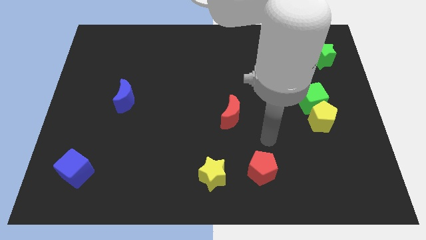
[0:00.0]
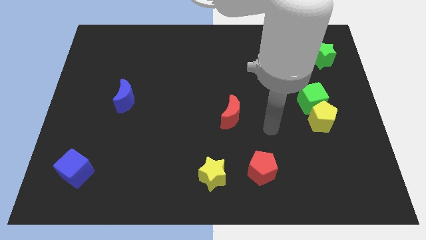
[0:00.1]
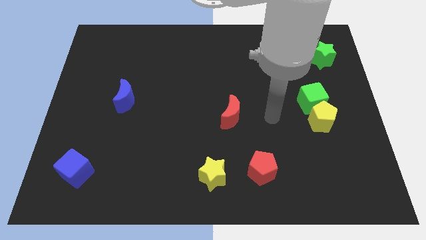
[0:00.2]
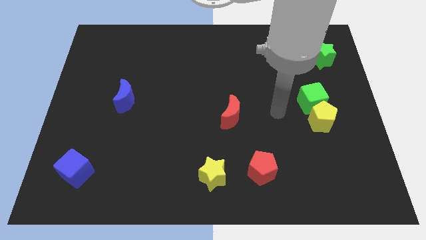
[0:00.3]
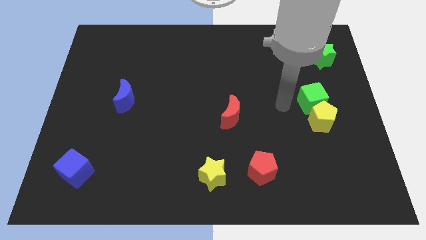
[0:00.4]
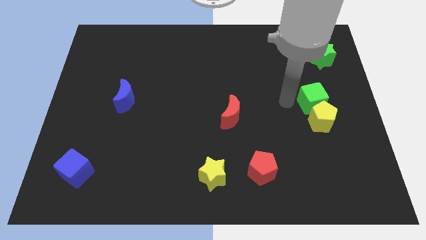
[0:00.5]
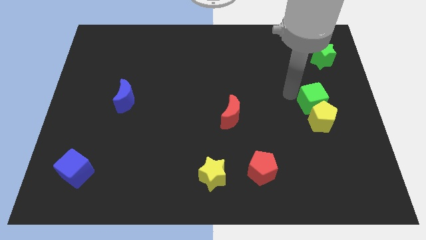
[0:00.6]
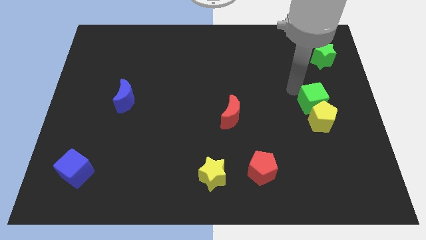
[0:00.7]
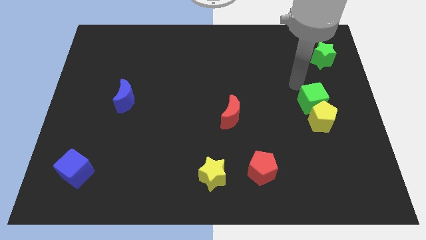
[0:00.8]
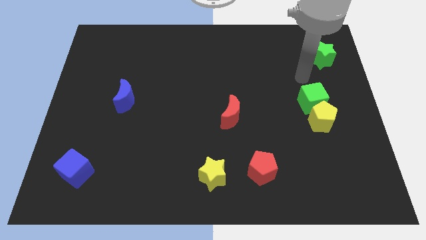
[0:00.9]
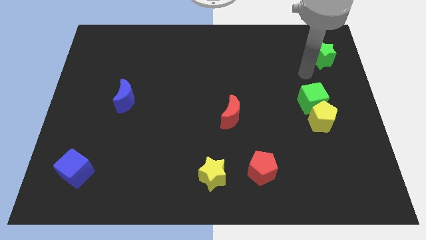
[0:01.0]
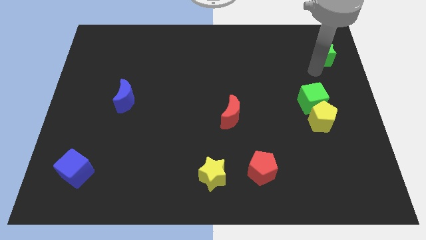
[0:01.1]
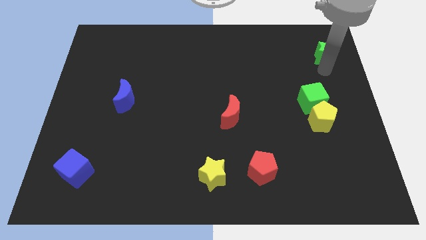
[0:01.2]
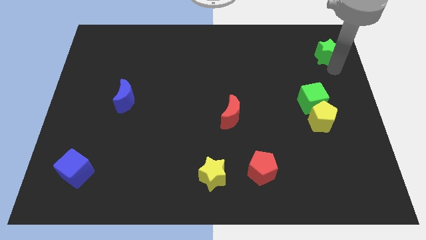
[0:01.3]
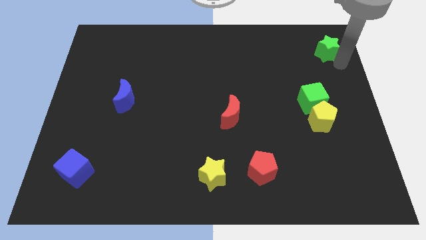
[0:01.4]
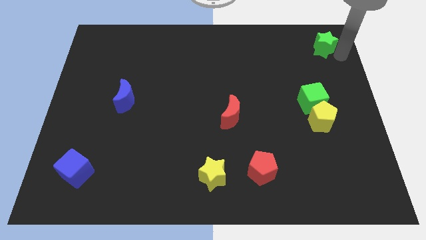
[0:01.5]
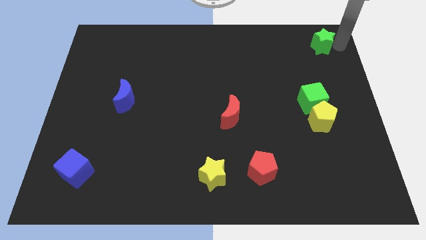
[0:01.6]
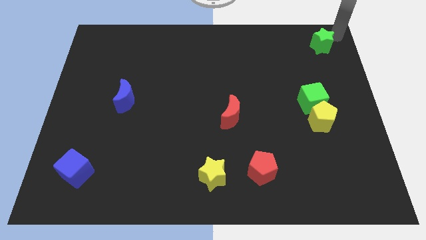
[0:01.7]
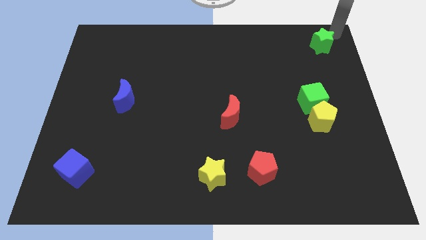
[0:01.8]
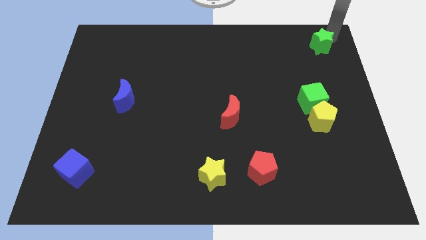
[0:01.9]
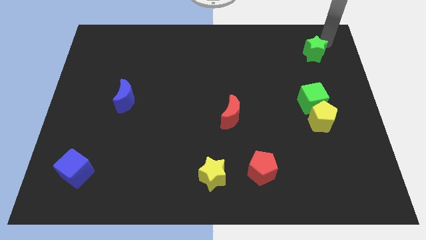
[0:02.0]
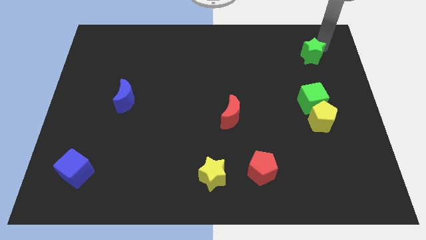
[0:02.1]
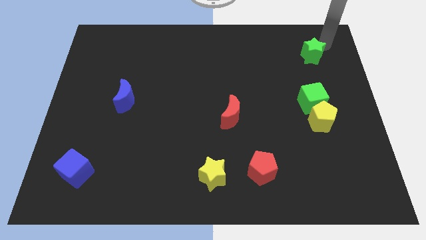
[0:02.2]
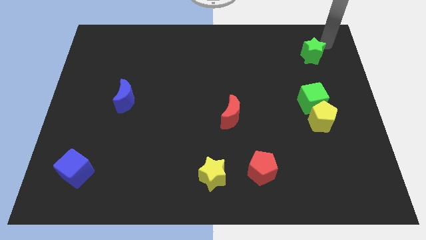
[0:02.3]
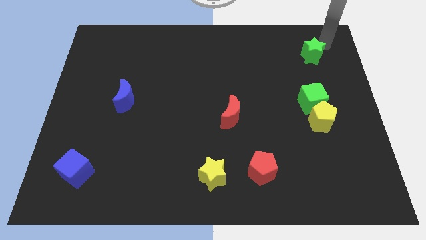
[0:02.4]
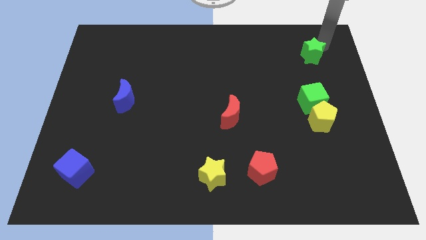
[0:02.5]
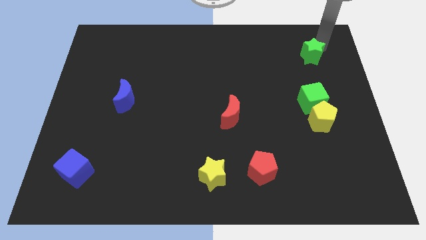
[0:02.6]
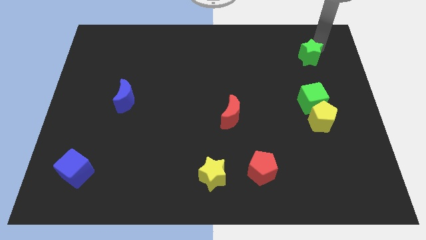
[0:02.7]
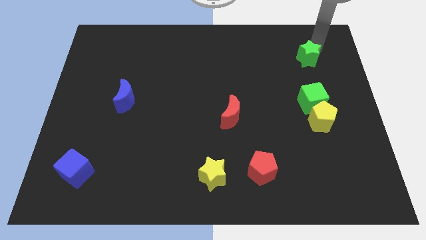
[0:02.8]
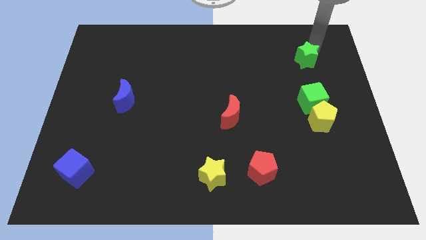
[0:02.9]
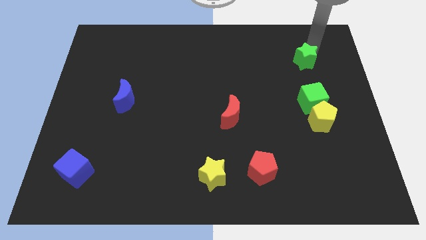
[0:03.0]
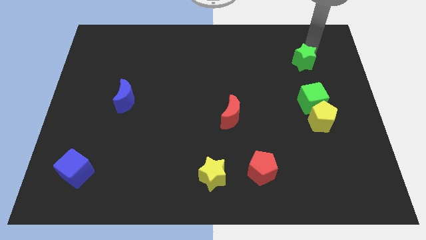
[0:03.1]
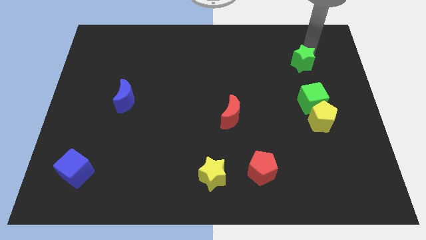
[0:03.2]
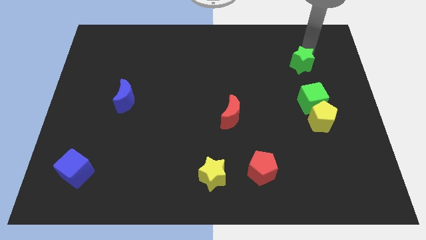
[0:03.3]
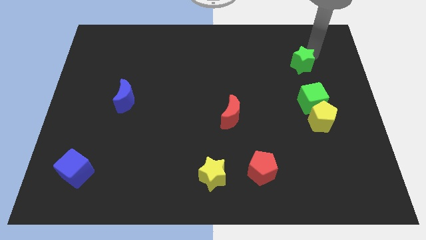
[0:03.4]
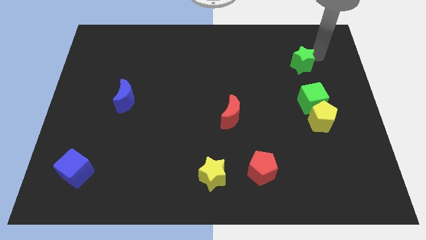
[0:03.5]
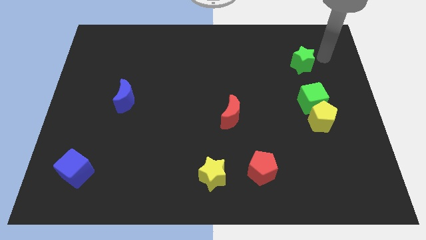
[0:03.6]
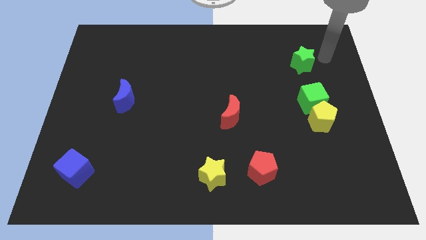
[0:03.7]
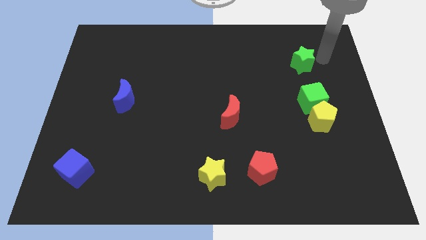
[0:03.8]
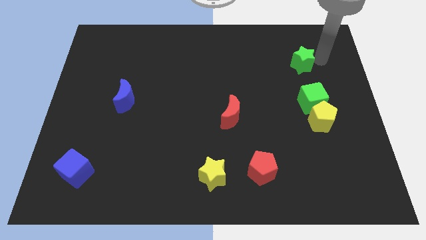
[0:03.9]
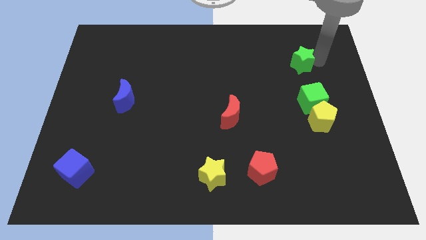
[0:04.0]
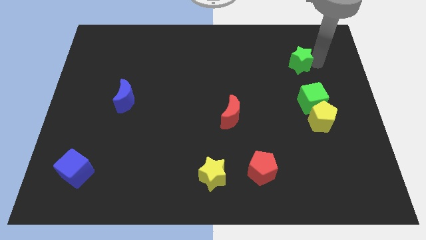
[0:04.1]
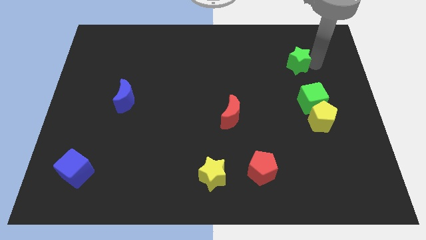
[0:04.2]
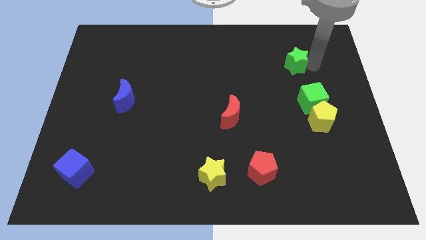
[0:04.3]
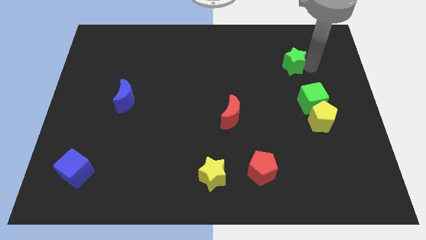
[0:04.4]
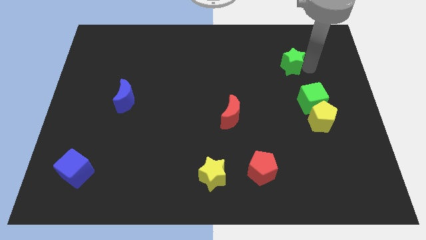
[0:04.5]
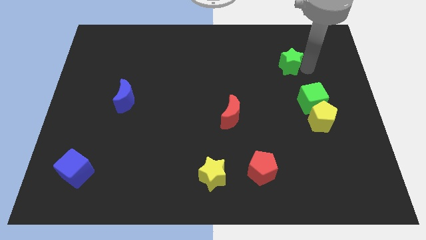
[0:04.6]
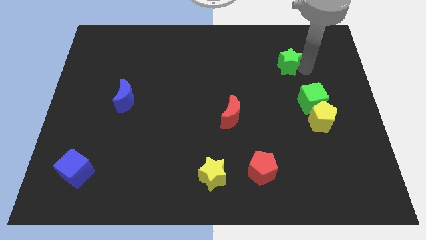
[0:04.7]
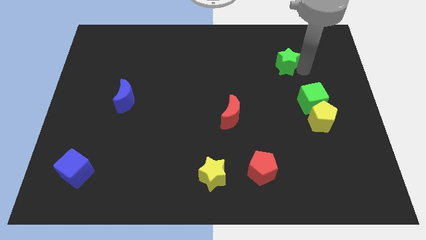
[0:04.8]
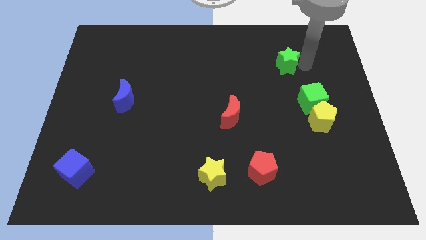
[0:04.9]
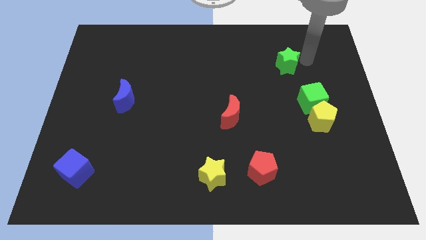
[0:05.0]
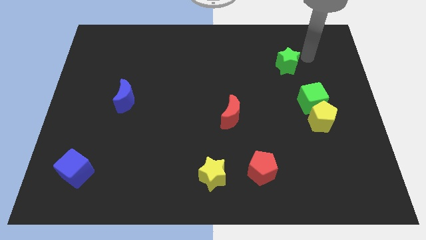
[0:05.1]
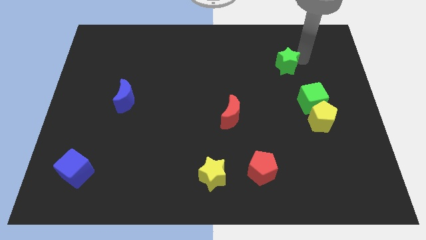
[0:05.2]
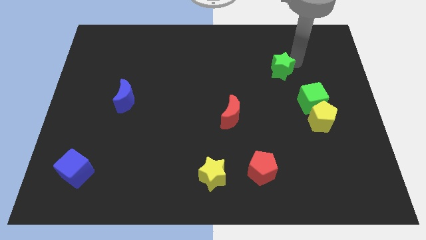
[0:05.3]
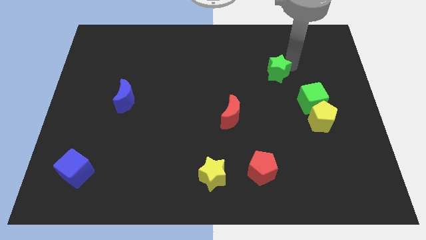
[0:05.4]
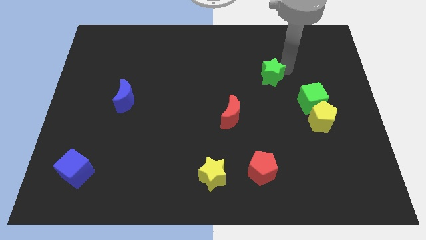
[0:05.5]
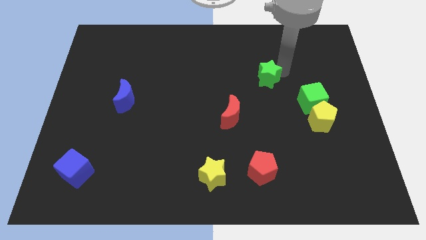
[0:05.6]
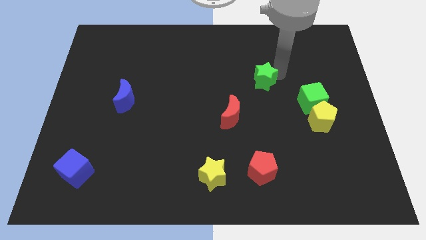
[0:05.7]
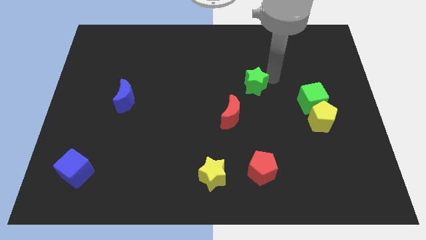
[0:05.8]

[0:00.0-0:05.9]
put the green star to the middle of the board

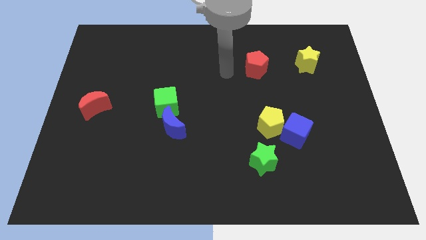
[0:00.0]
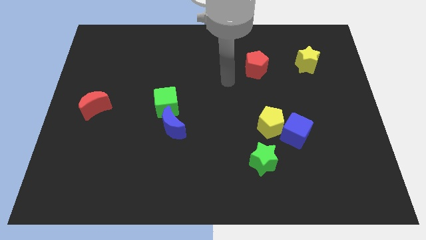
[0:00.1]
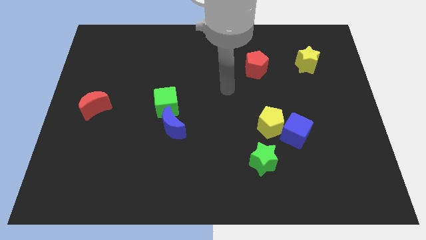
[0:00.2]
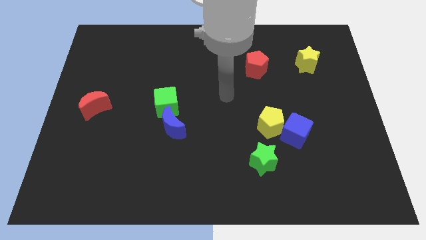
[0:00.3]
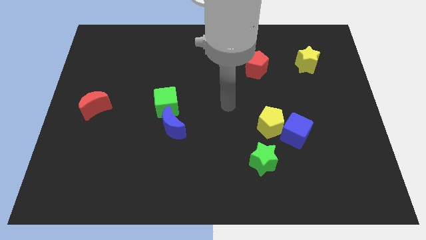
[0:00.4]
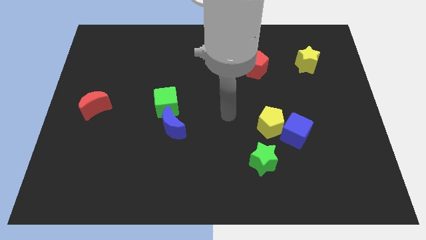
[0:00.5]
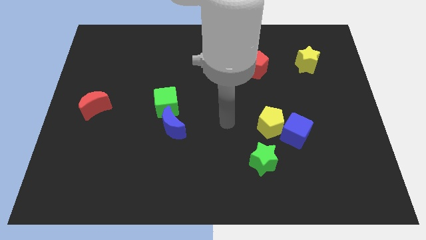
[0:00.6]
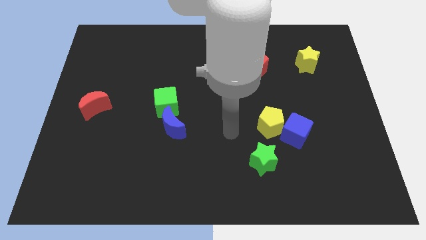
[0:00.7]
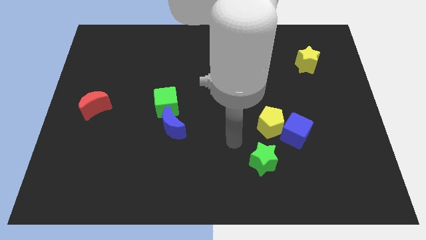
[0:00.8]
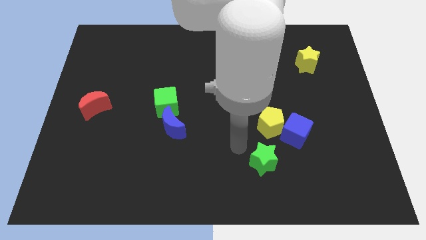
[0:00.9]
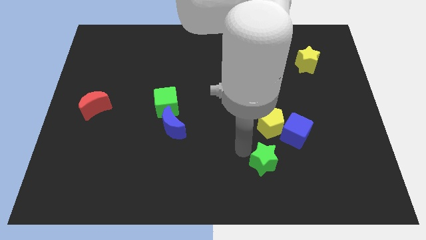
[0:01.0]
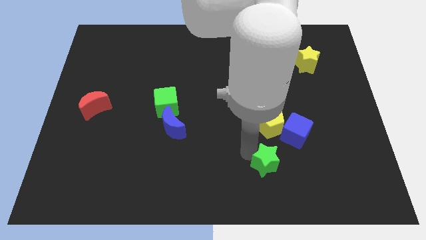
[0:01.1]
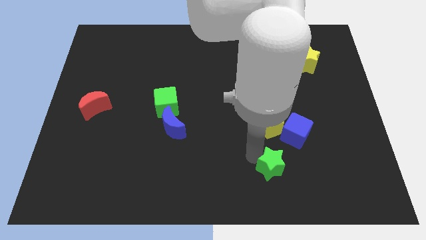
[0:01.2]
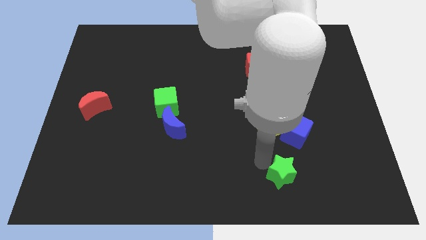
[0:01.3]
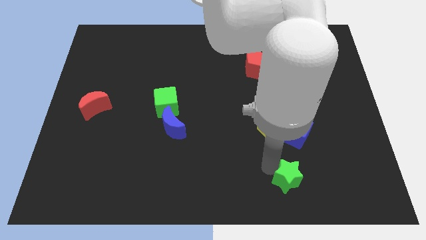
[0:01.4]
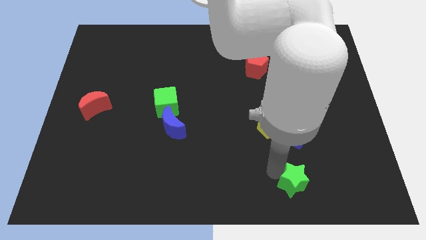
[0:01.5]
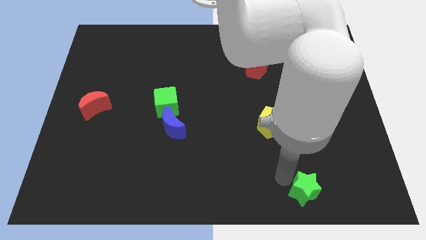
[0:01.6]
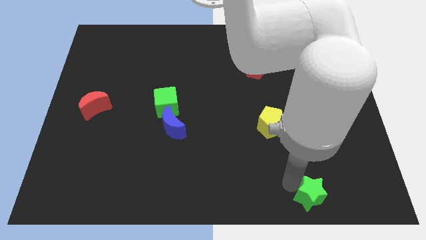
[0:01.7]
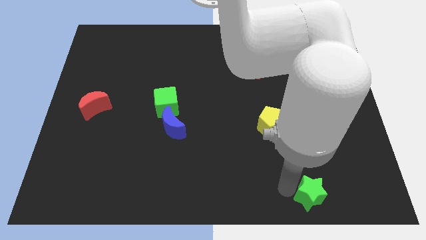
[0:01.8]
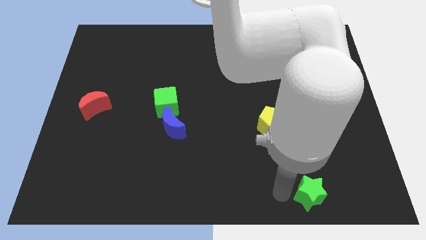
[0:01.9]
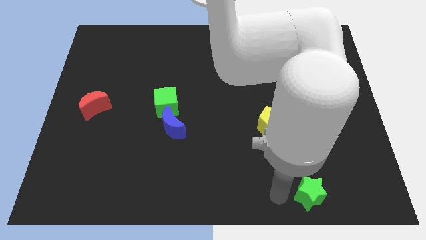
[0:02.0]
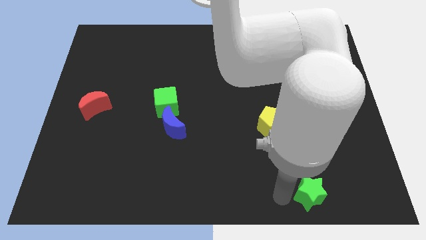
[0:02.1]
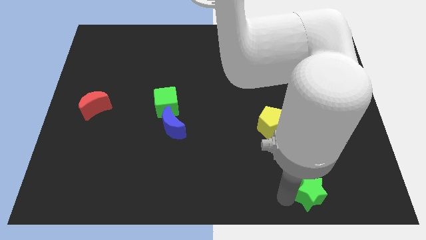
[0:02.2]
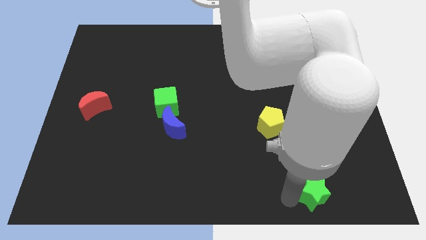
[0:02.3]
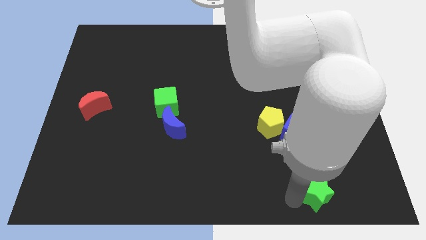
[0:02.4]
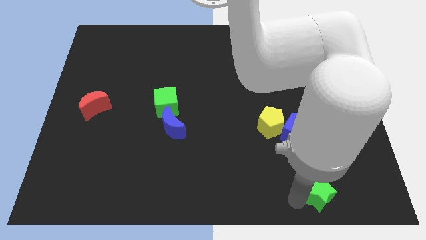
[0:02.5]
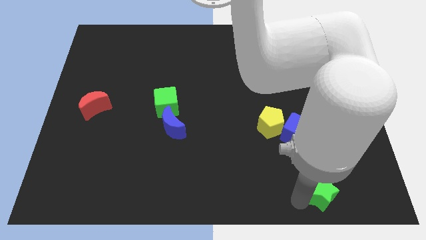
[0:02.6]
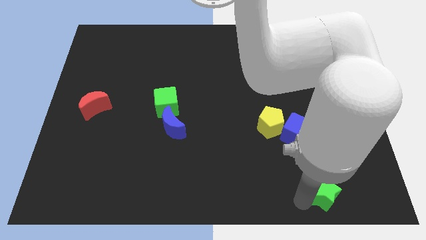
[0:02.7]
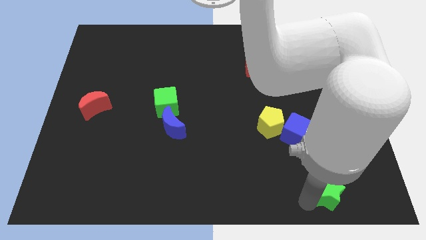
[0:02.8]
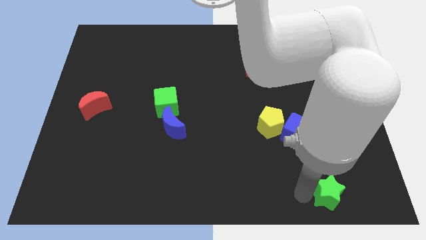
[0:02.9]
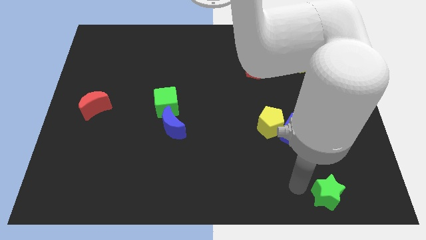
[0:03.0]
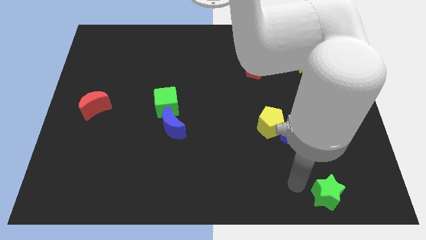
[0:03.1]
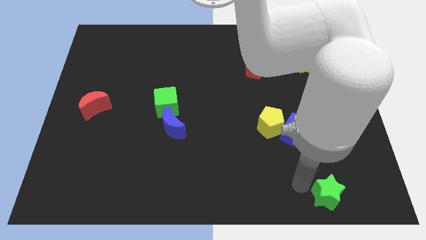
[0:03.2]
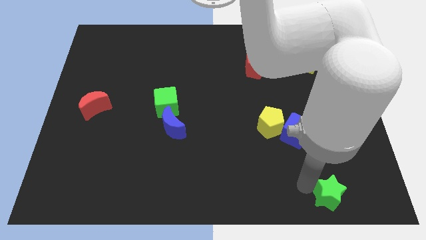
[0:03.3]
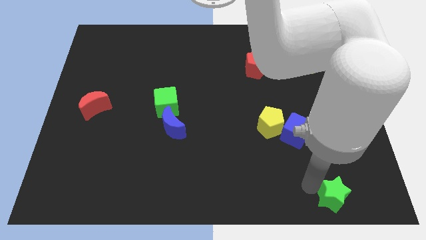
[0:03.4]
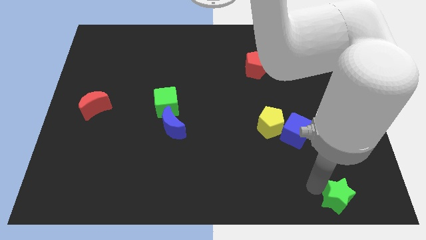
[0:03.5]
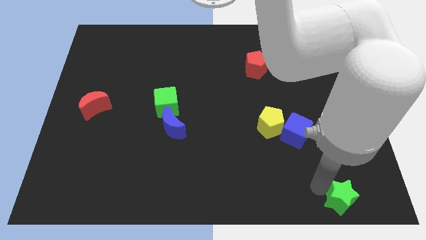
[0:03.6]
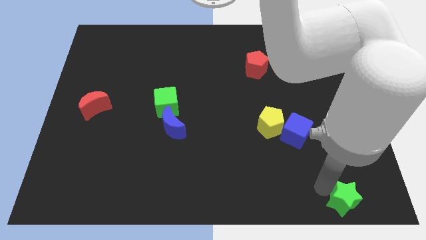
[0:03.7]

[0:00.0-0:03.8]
push the green star to the bottom right
